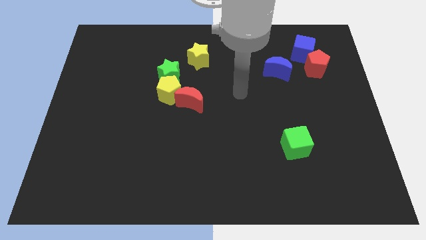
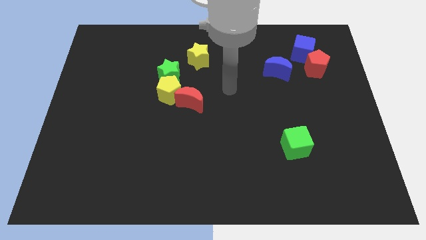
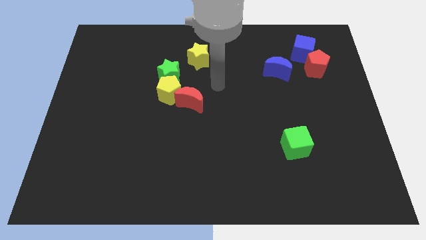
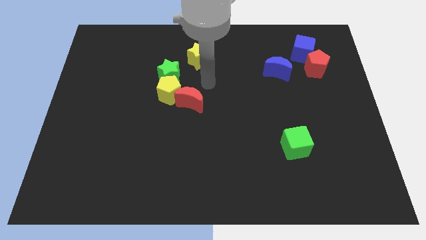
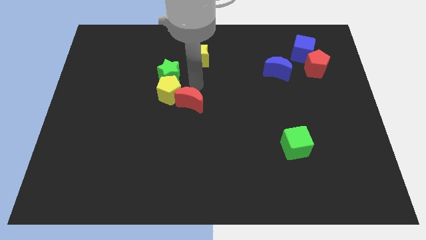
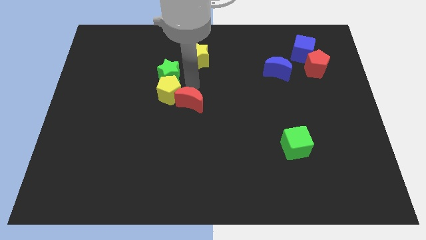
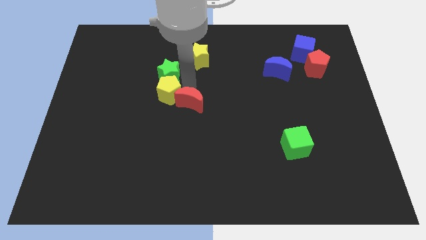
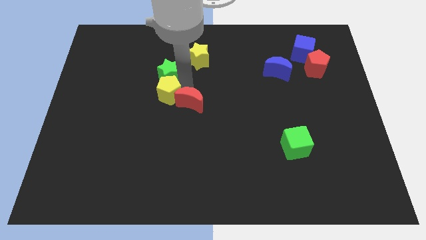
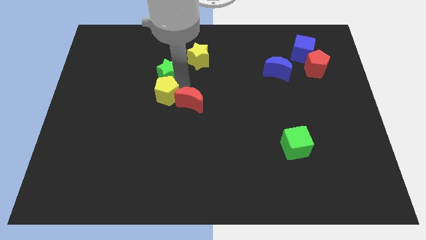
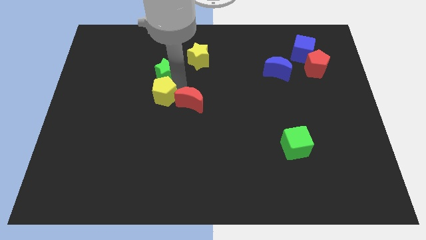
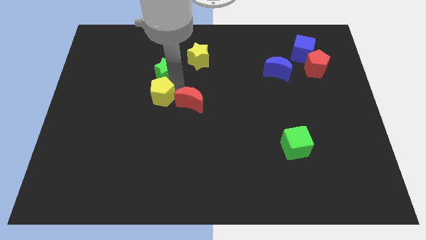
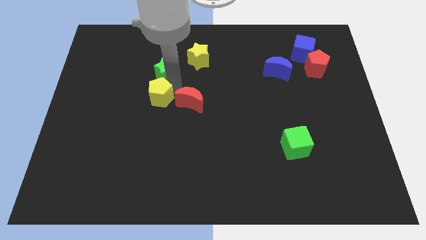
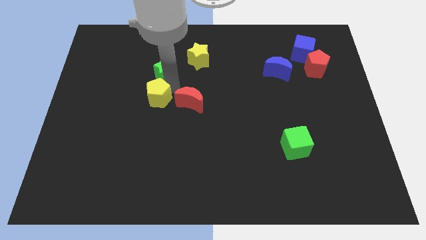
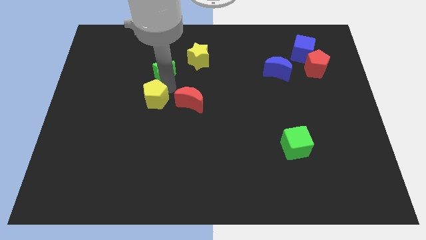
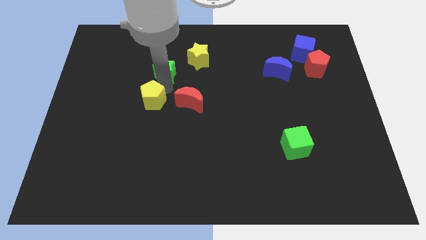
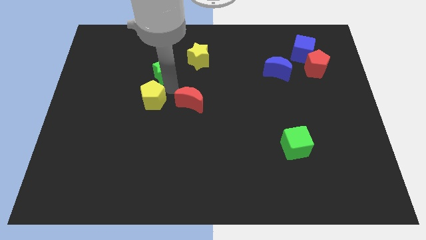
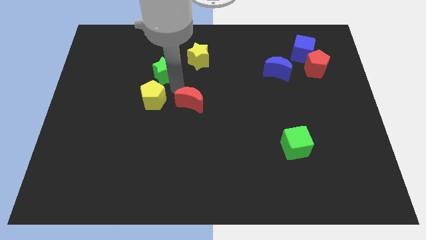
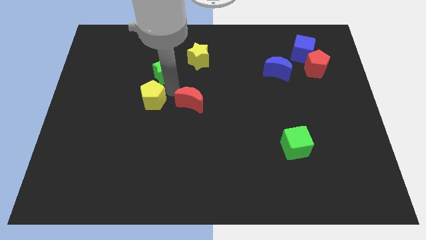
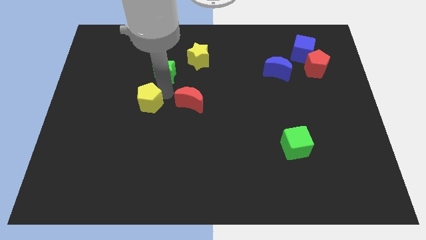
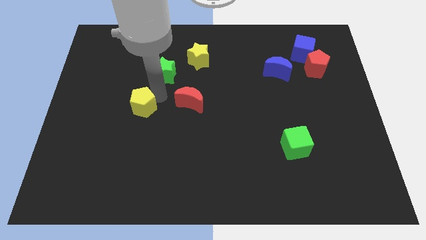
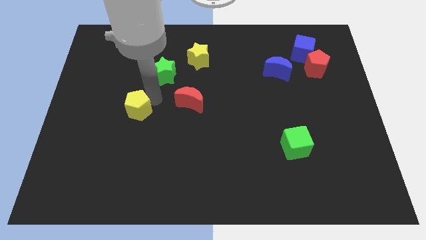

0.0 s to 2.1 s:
separate the yellow pentagon from the green star and red moon

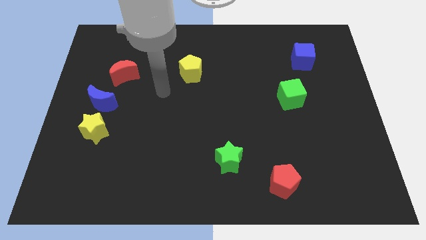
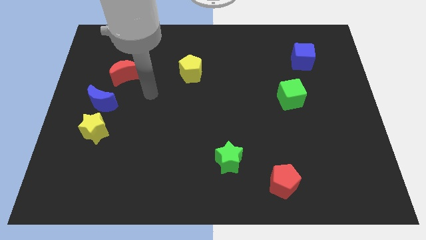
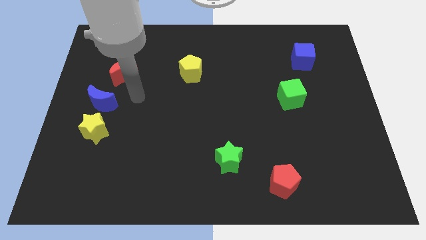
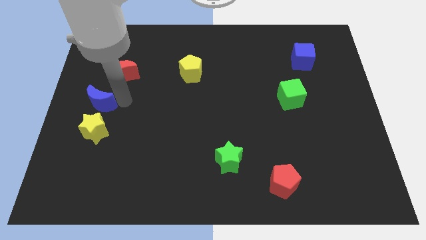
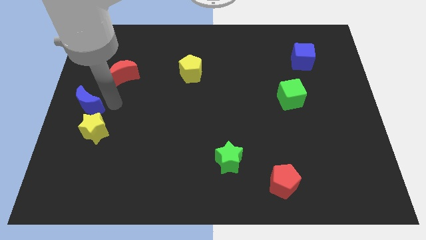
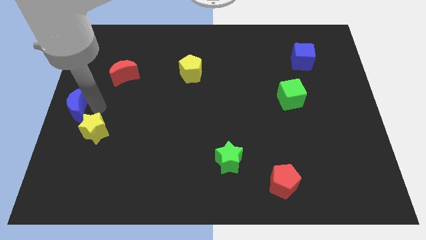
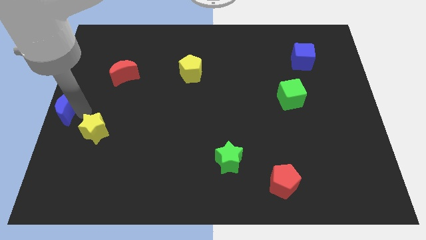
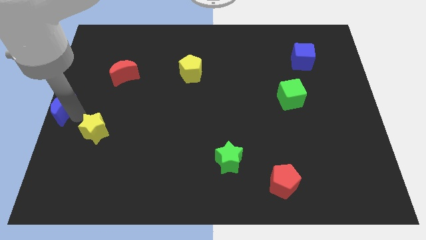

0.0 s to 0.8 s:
move the yellow star away from the blue moon

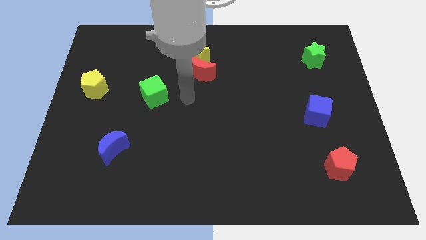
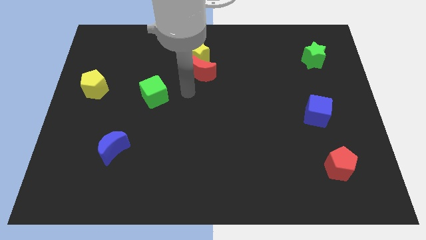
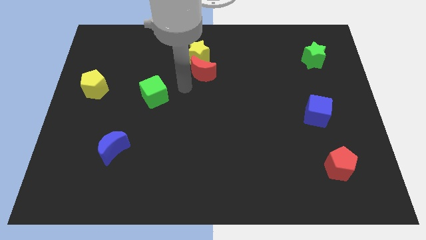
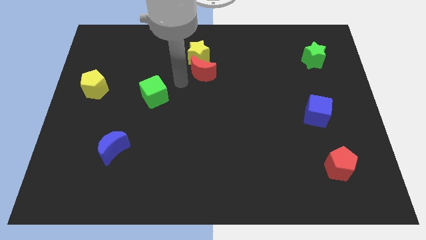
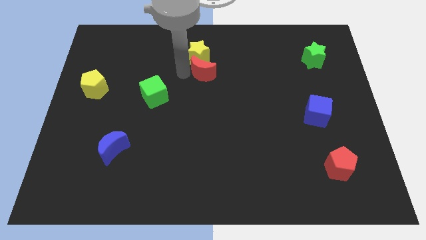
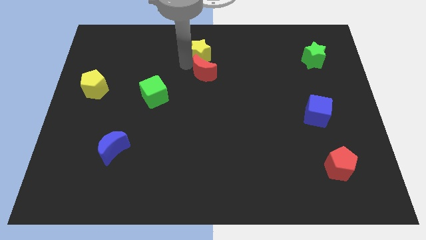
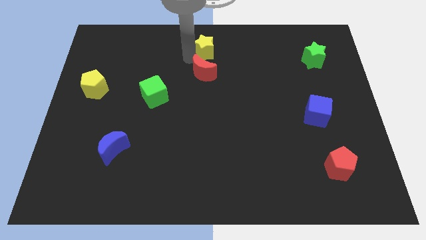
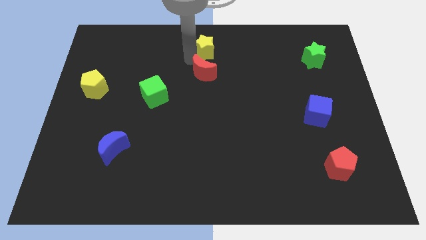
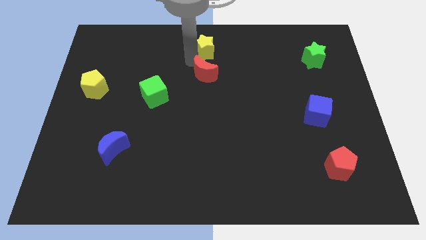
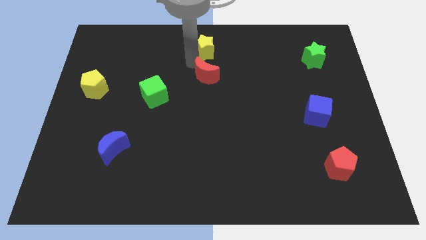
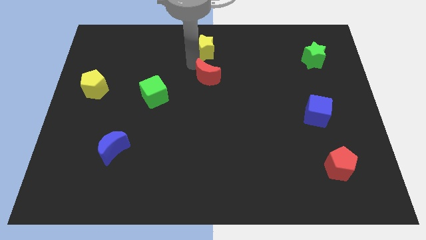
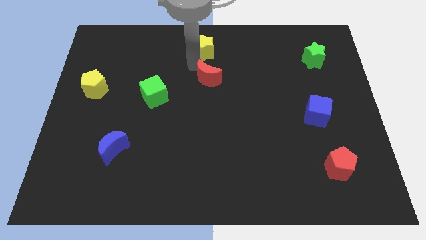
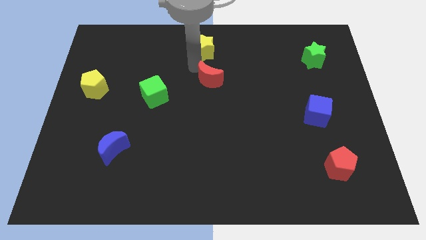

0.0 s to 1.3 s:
pull the red moon apart from the yellow star

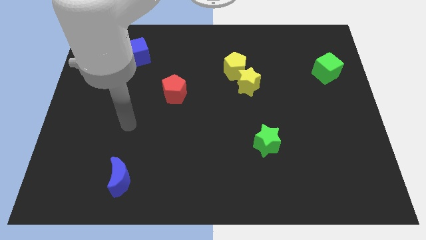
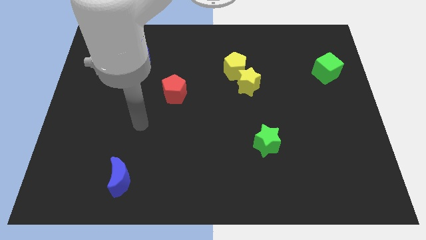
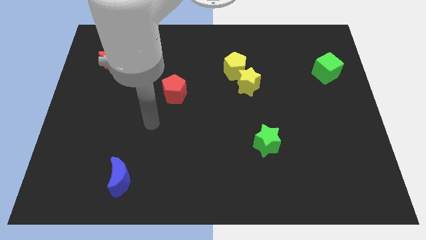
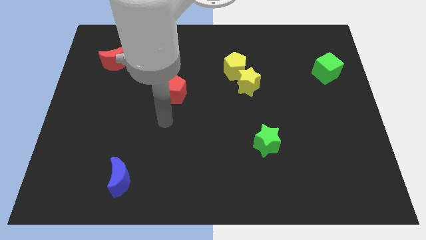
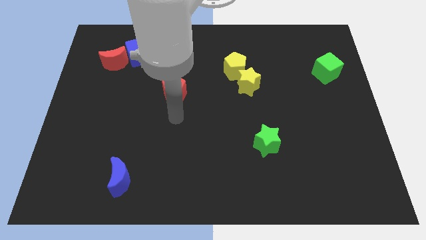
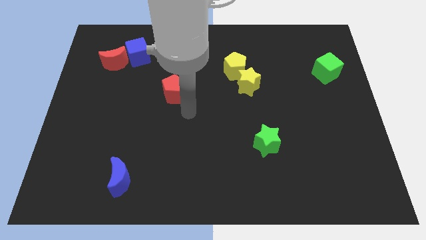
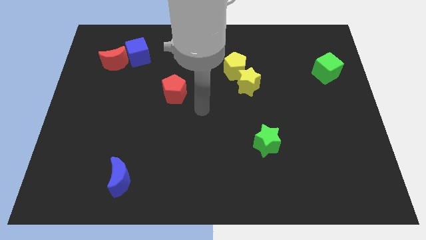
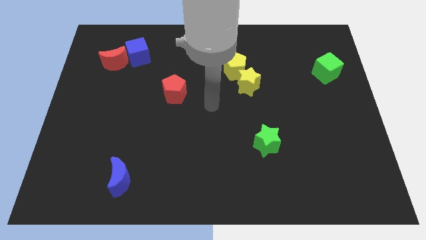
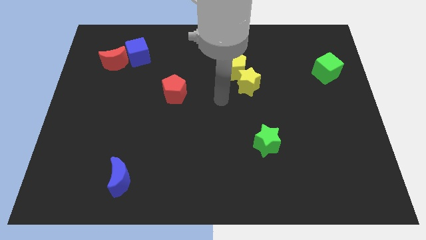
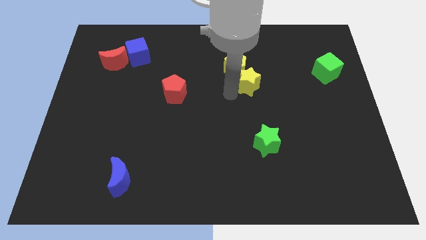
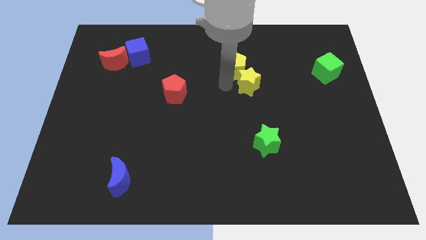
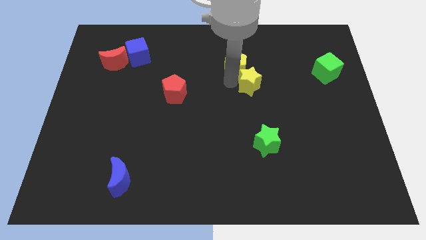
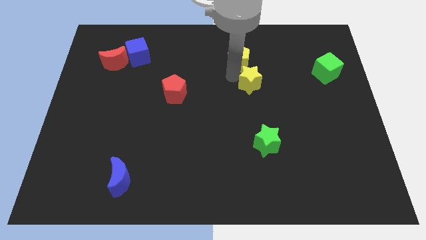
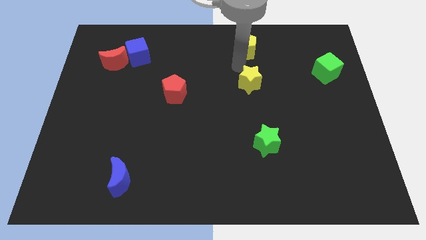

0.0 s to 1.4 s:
pull the yellow star apart from the yellow pentagon

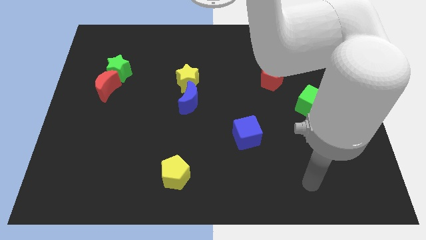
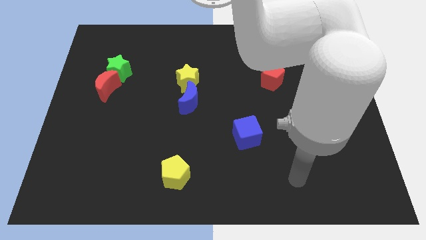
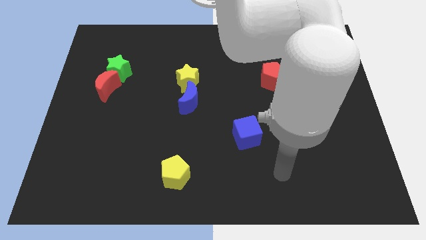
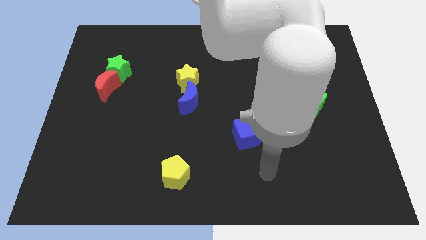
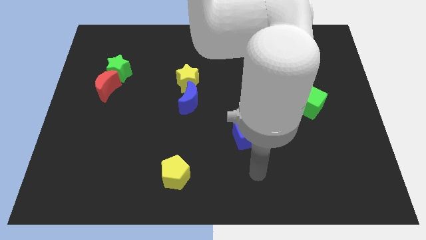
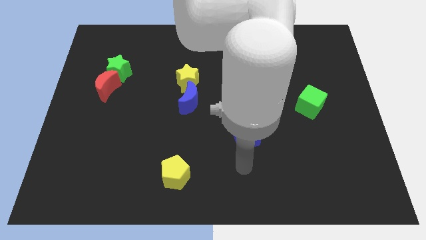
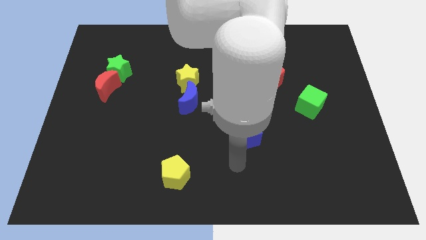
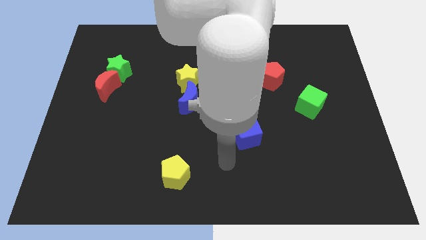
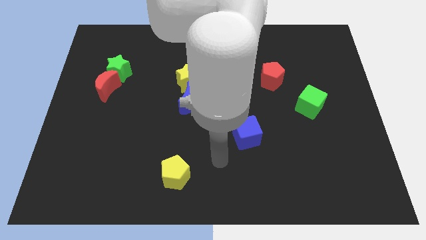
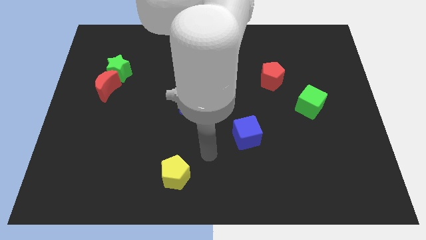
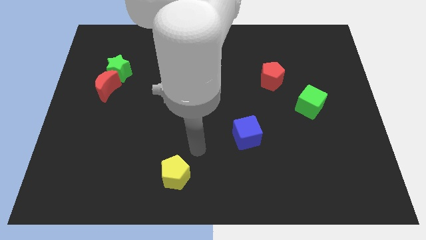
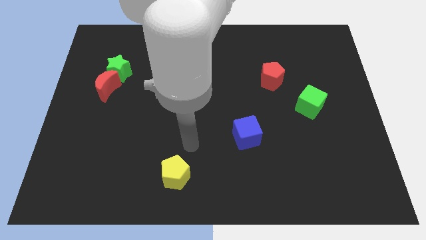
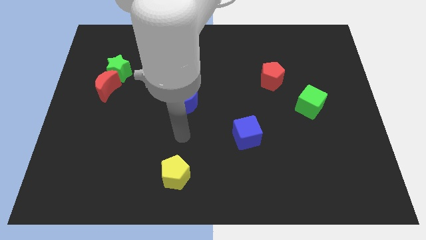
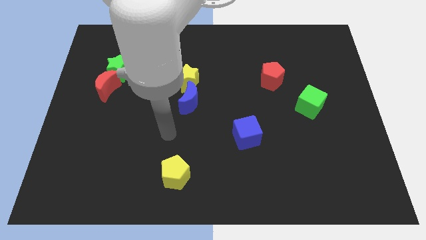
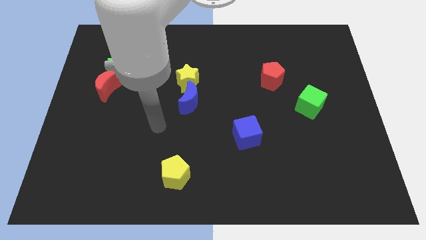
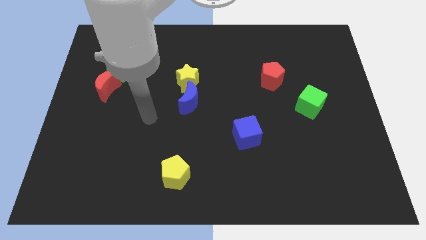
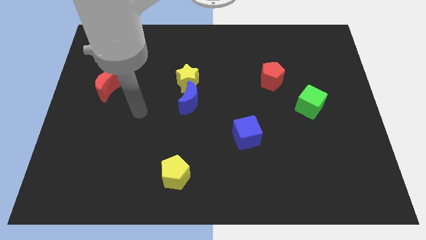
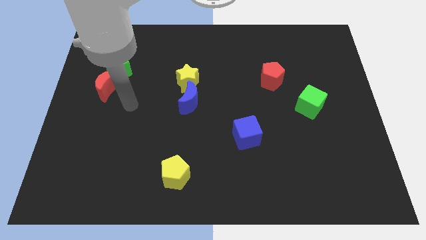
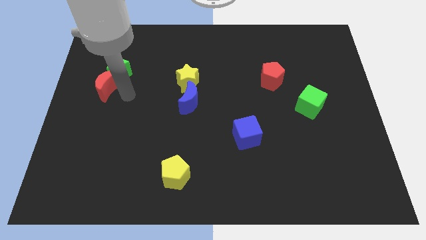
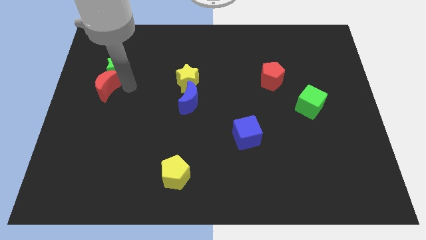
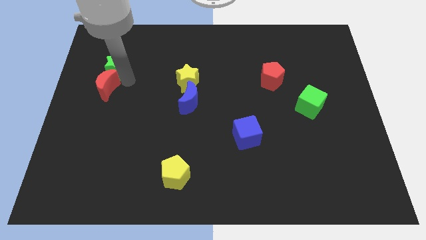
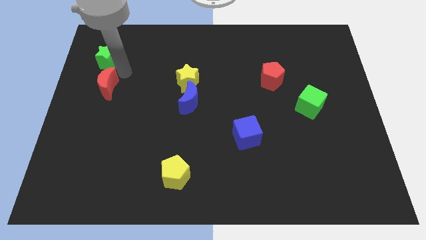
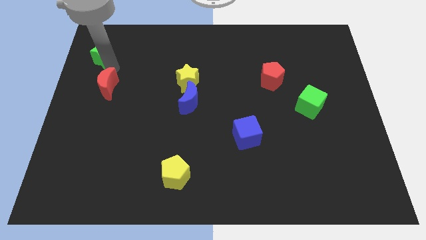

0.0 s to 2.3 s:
pull the red moon apart from the green star

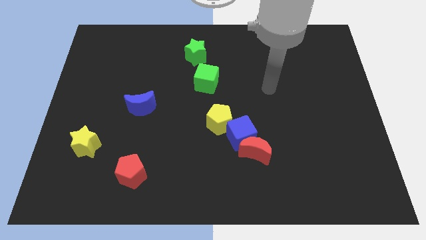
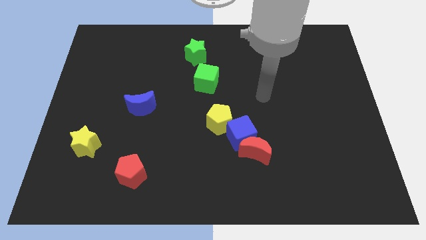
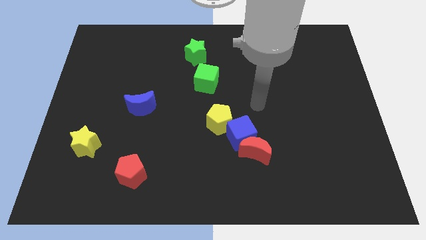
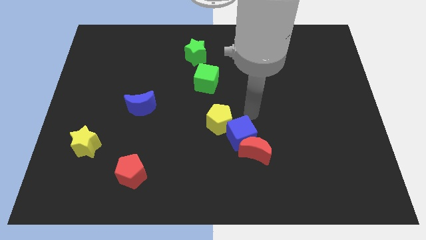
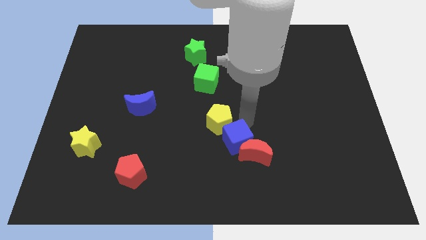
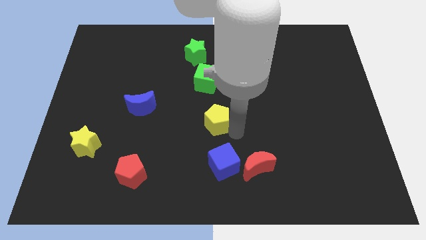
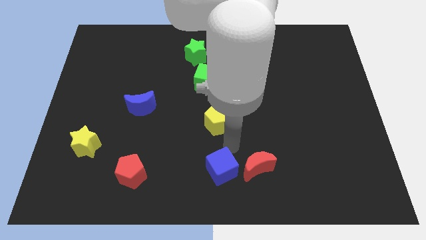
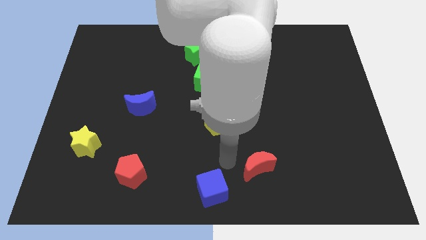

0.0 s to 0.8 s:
move the red moon away from the blue cube

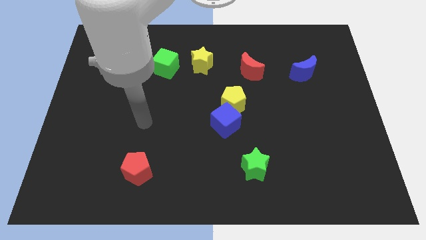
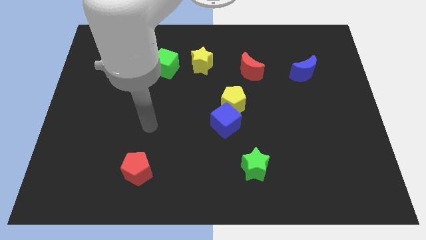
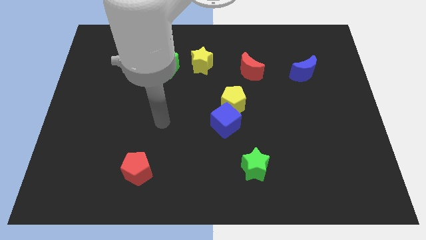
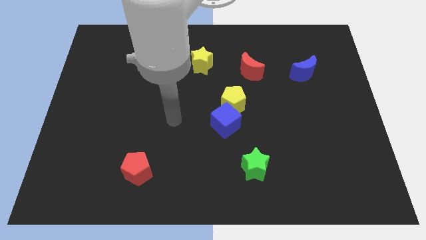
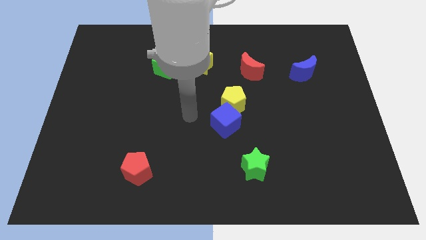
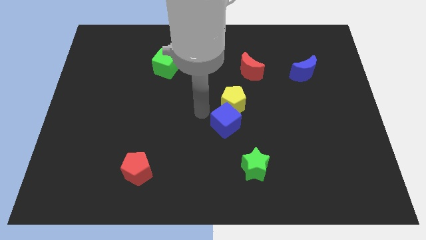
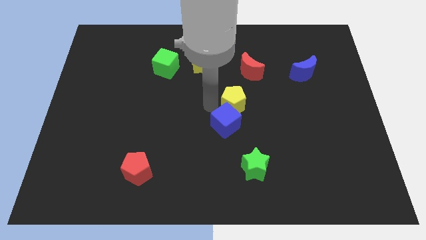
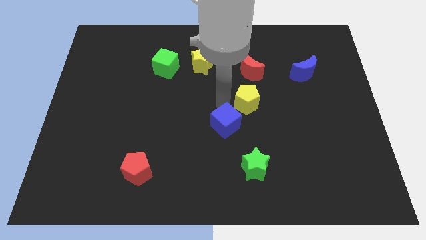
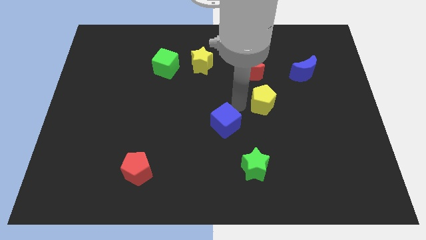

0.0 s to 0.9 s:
separate the blue cube from the yellow pentagon
